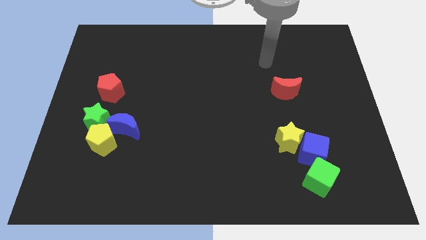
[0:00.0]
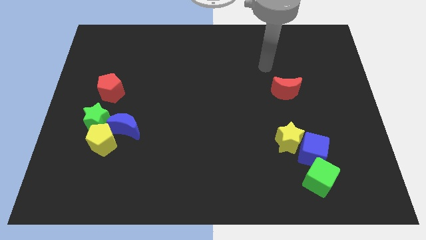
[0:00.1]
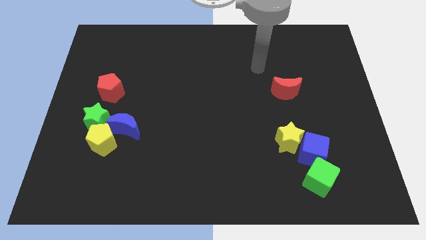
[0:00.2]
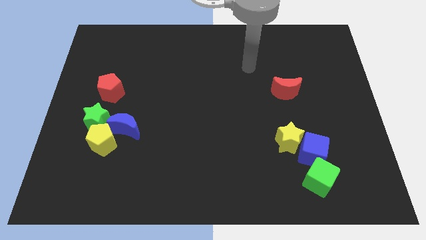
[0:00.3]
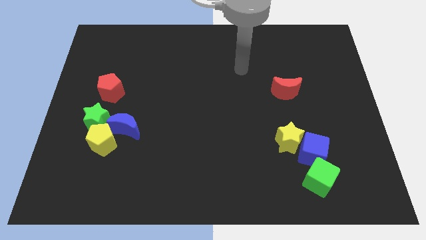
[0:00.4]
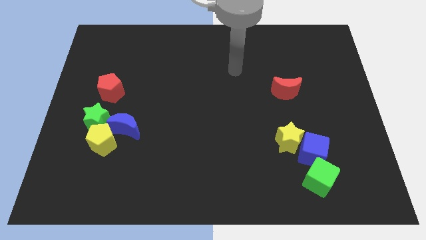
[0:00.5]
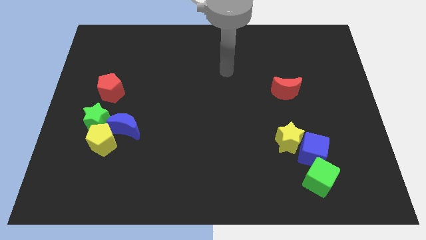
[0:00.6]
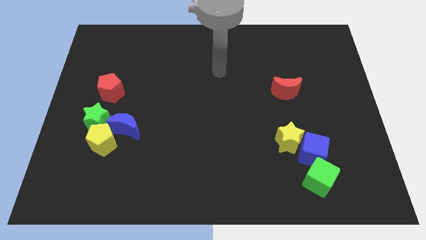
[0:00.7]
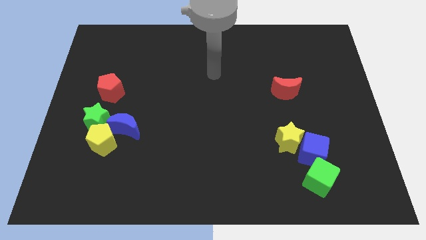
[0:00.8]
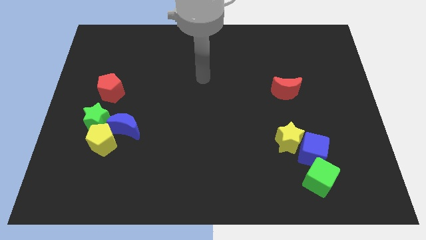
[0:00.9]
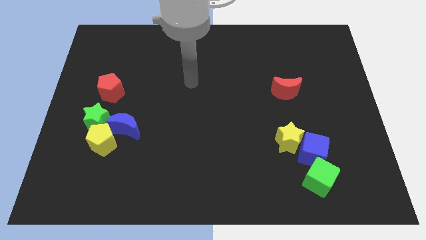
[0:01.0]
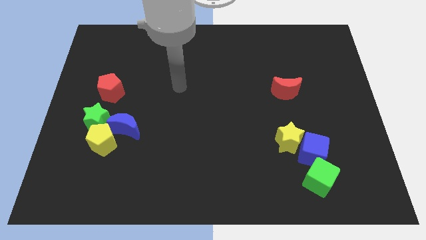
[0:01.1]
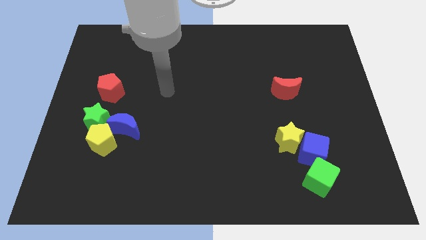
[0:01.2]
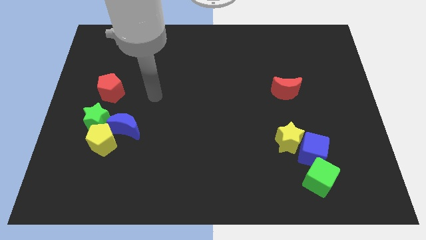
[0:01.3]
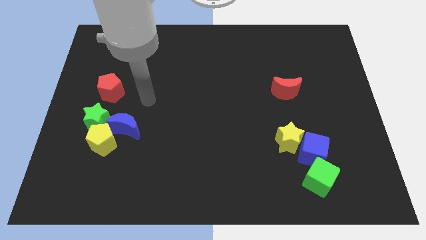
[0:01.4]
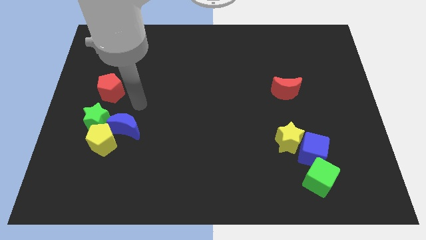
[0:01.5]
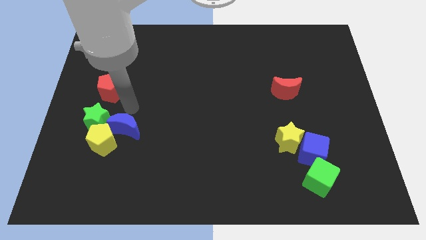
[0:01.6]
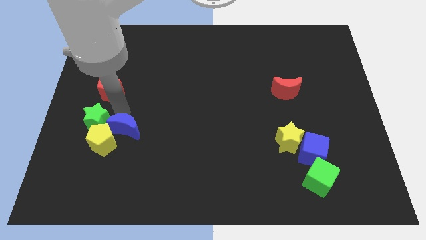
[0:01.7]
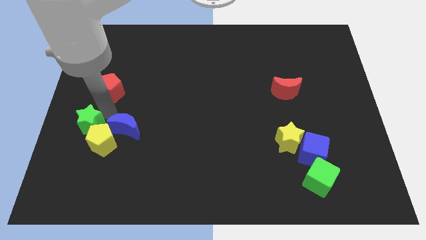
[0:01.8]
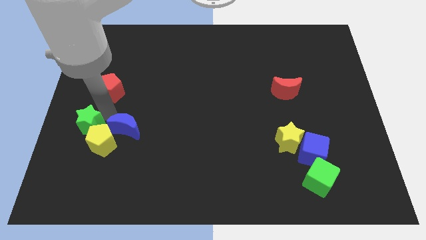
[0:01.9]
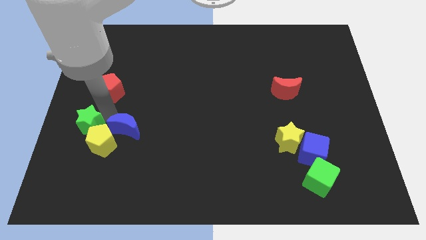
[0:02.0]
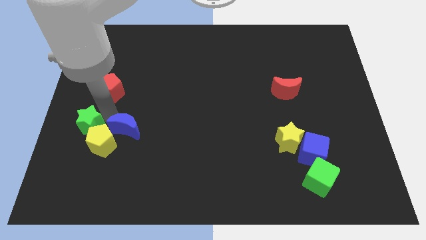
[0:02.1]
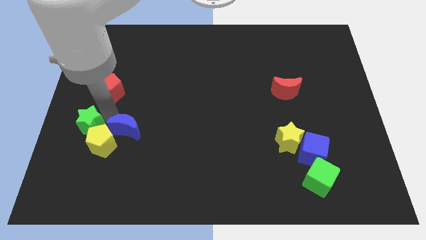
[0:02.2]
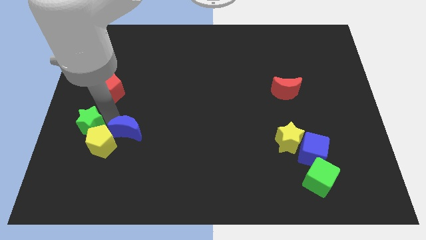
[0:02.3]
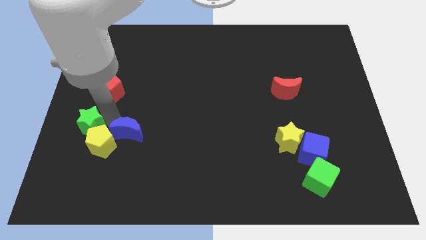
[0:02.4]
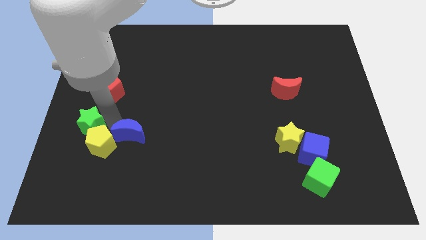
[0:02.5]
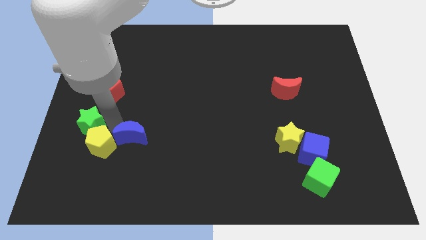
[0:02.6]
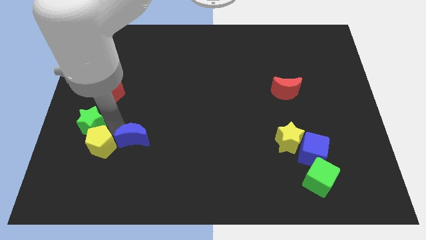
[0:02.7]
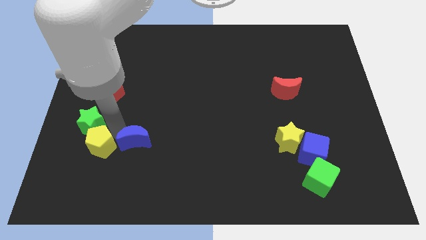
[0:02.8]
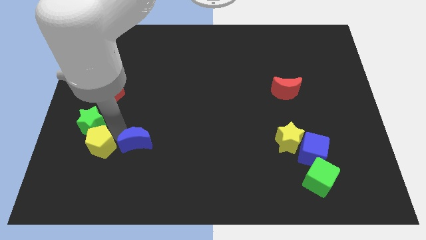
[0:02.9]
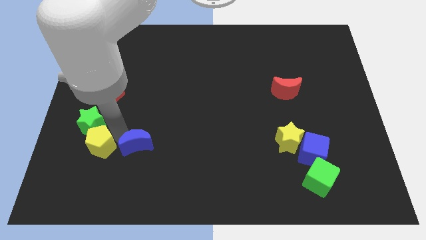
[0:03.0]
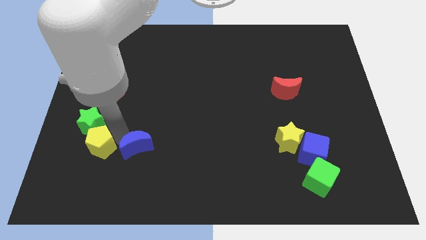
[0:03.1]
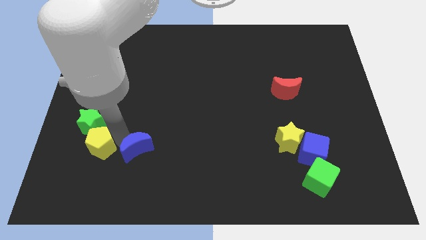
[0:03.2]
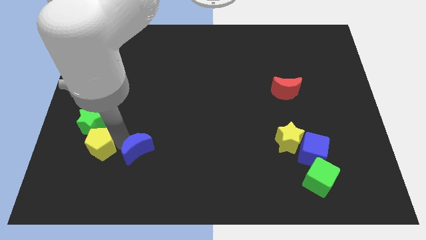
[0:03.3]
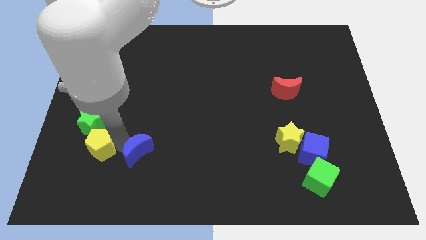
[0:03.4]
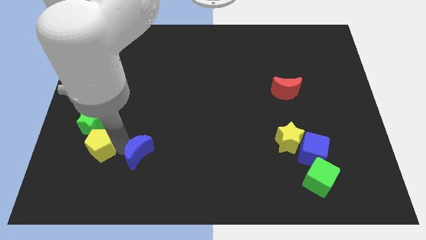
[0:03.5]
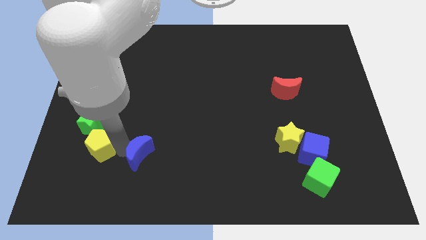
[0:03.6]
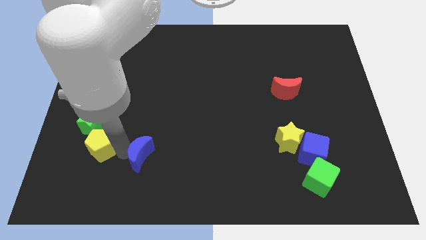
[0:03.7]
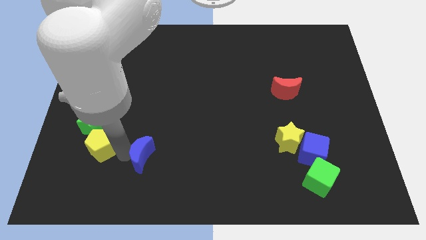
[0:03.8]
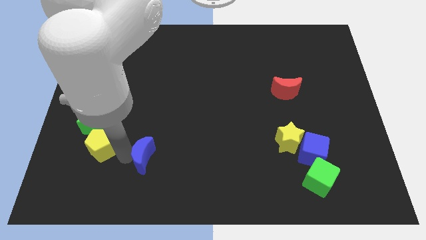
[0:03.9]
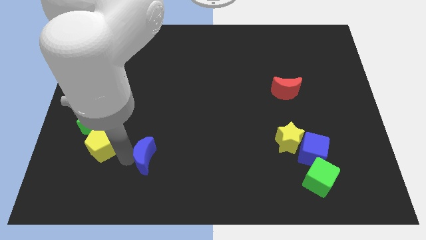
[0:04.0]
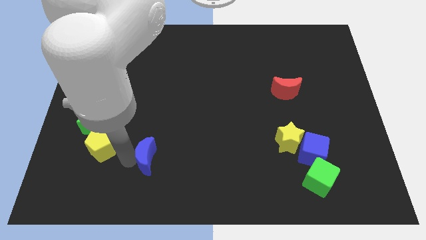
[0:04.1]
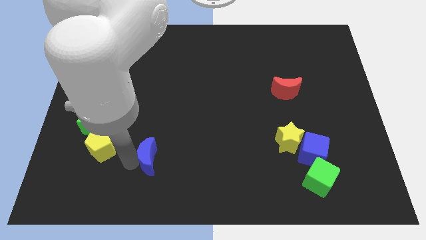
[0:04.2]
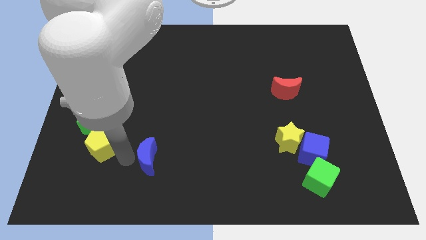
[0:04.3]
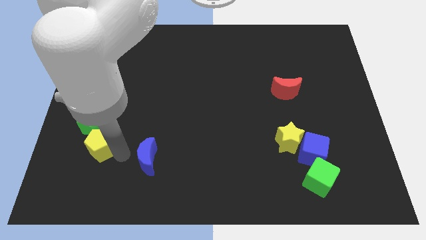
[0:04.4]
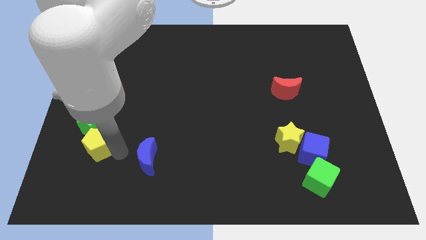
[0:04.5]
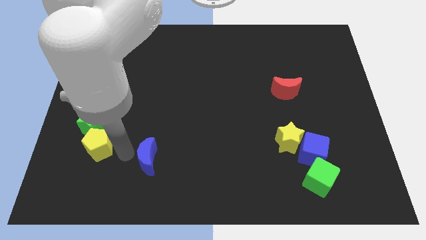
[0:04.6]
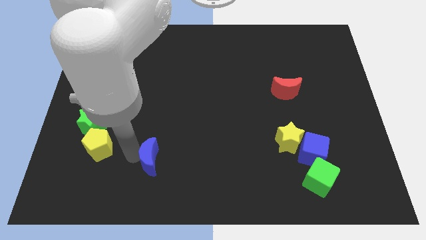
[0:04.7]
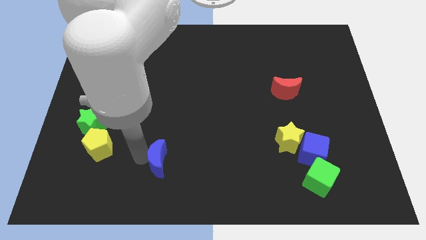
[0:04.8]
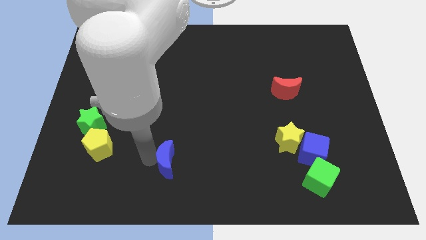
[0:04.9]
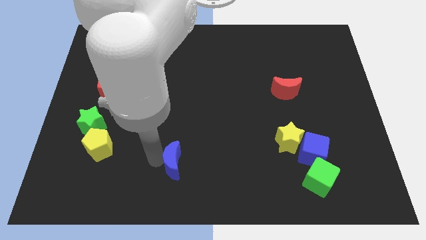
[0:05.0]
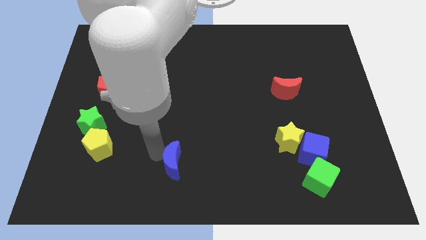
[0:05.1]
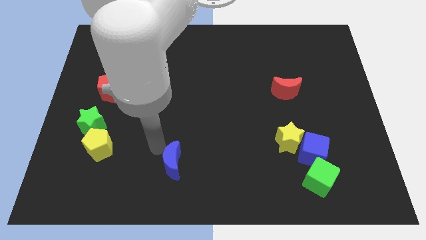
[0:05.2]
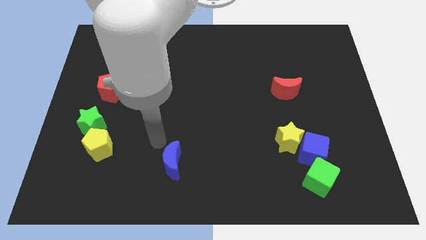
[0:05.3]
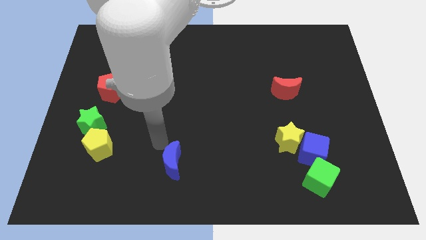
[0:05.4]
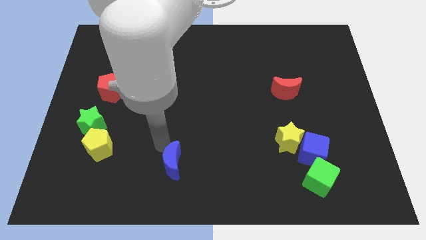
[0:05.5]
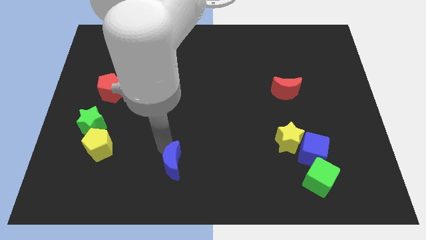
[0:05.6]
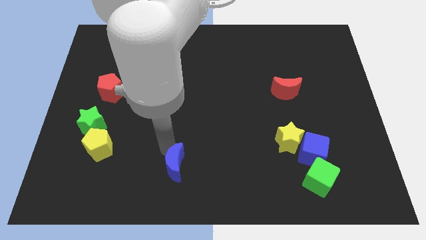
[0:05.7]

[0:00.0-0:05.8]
slide the blue moon to the bottom

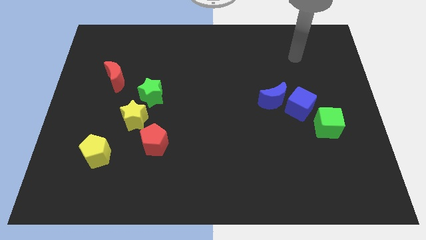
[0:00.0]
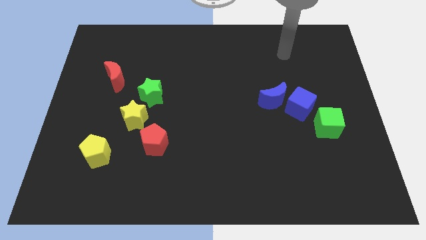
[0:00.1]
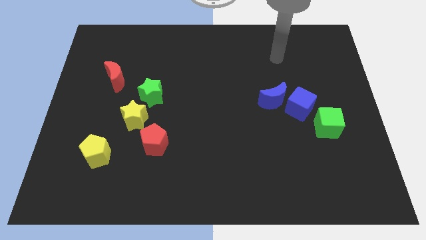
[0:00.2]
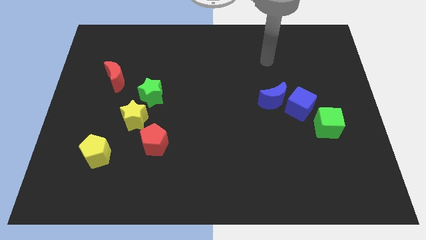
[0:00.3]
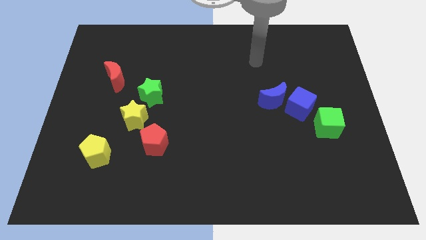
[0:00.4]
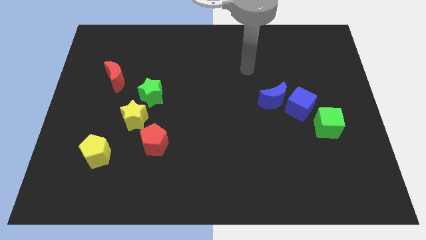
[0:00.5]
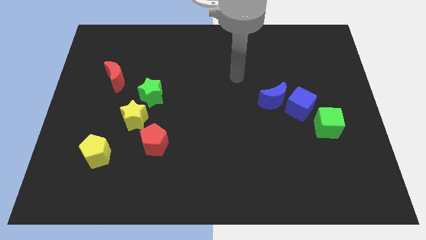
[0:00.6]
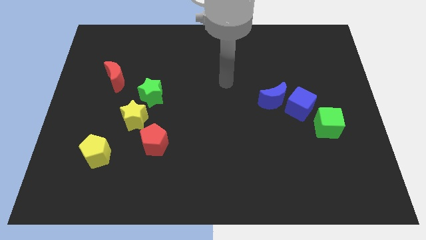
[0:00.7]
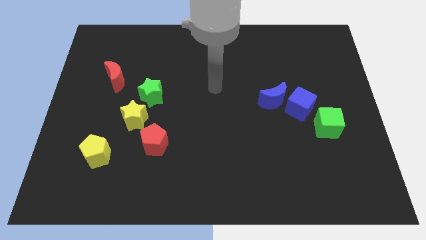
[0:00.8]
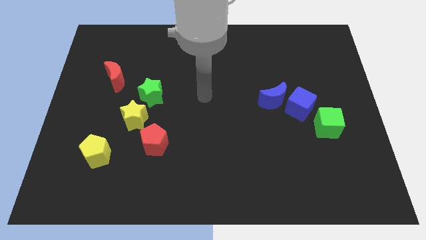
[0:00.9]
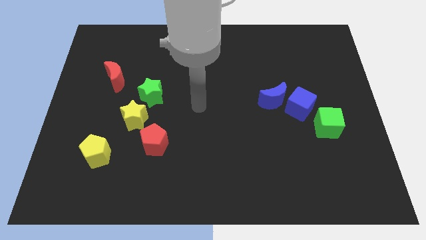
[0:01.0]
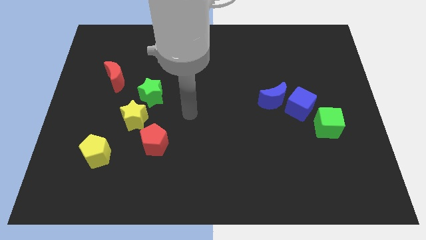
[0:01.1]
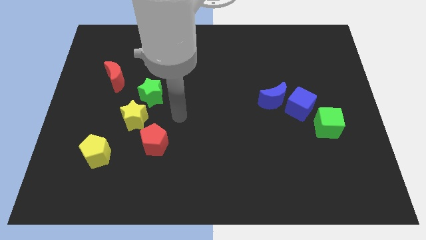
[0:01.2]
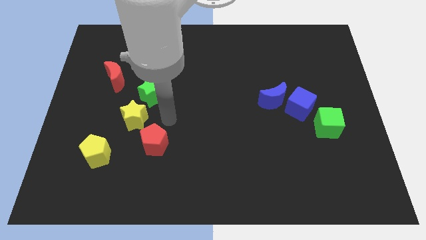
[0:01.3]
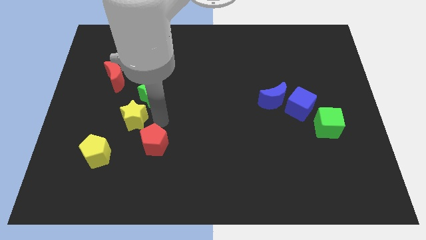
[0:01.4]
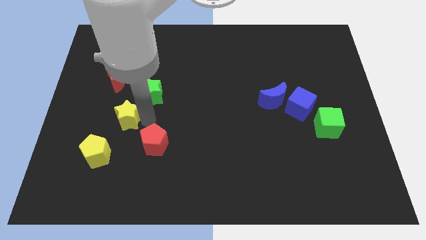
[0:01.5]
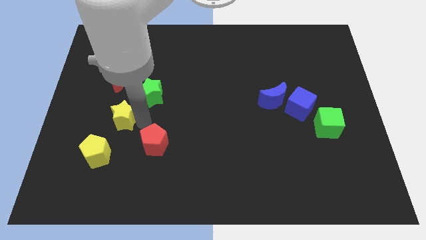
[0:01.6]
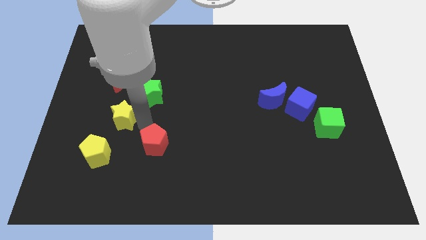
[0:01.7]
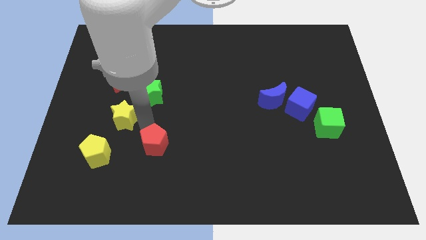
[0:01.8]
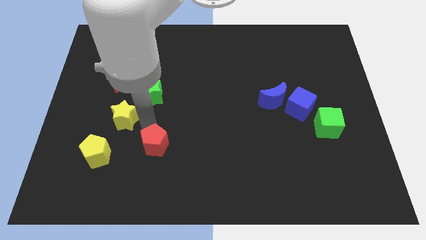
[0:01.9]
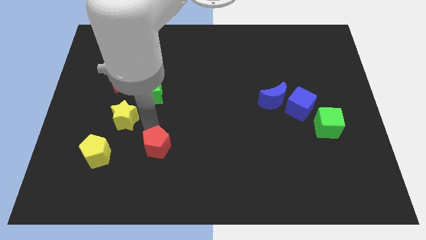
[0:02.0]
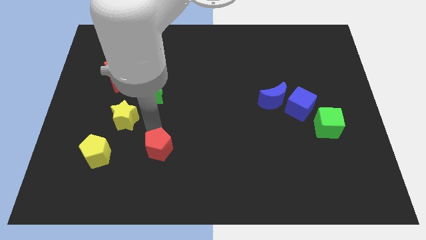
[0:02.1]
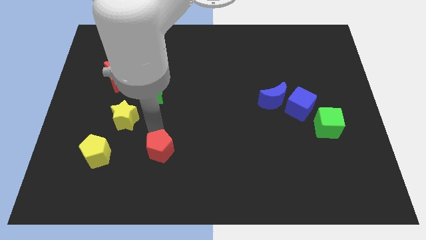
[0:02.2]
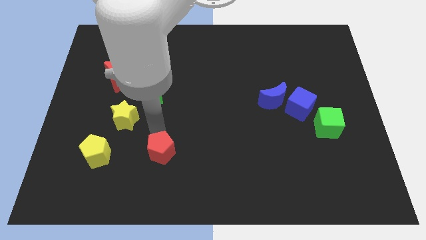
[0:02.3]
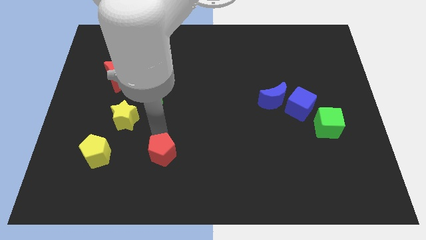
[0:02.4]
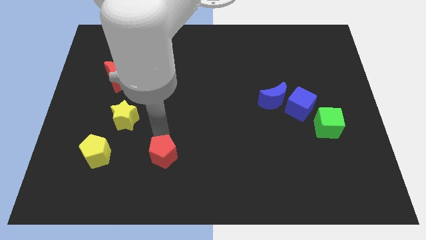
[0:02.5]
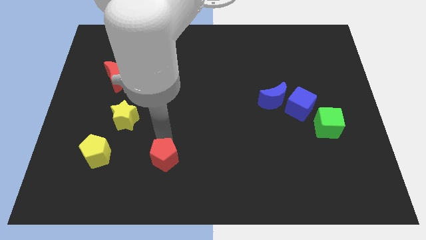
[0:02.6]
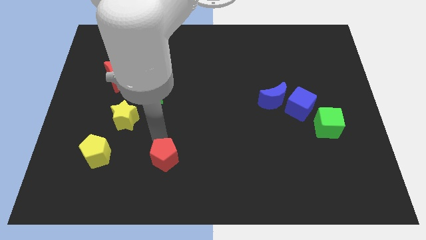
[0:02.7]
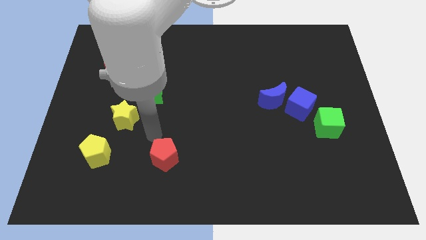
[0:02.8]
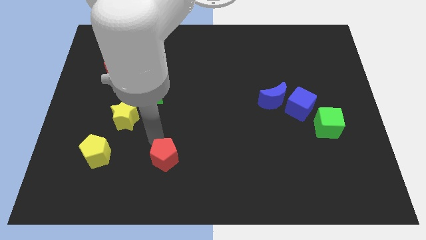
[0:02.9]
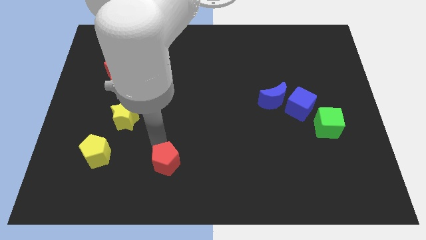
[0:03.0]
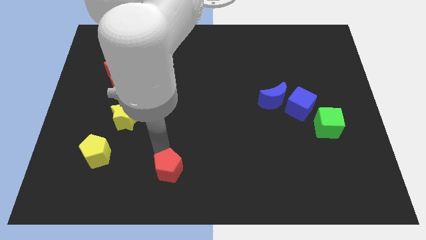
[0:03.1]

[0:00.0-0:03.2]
put the red pentagon to the bottom side
